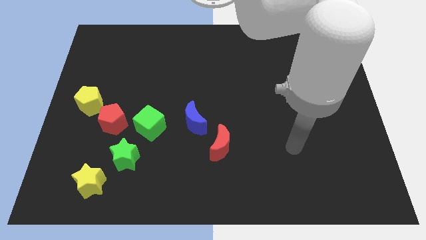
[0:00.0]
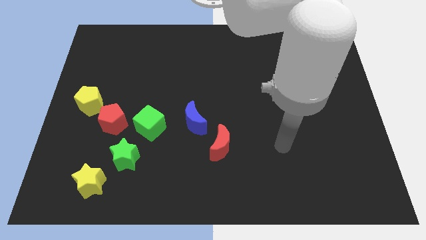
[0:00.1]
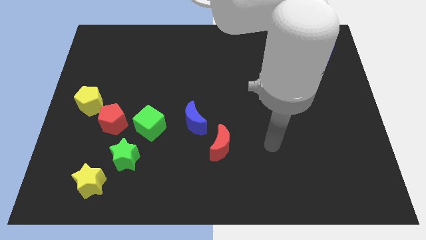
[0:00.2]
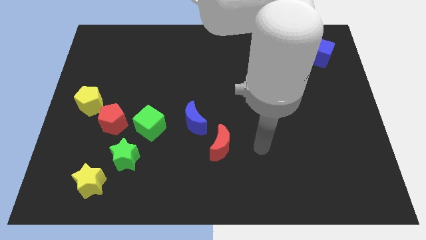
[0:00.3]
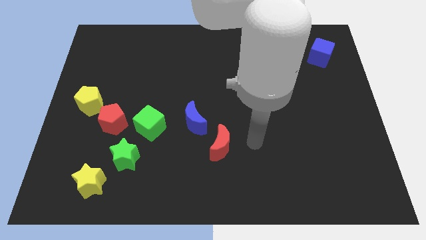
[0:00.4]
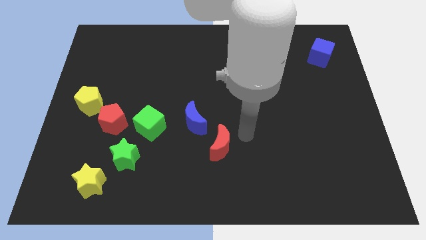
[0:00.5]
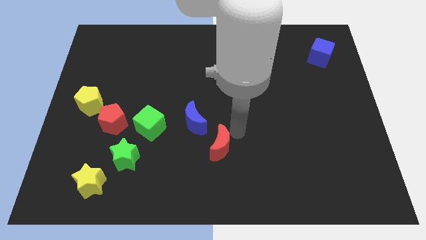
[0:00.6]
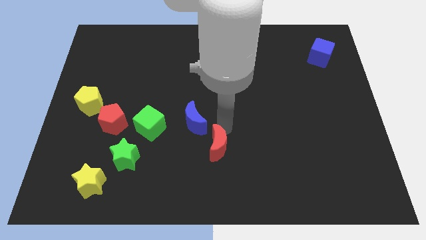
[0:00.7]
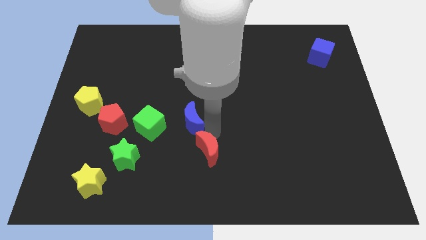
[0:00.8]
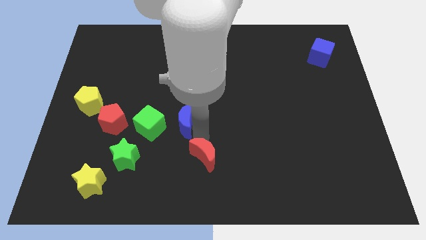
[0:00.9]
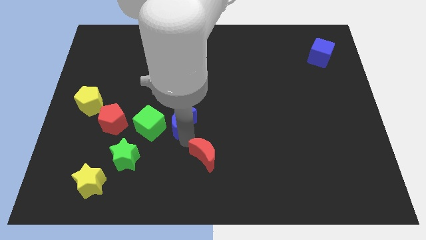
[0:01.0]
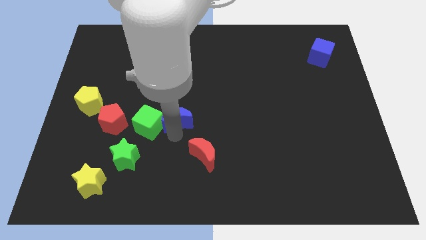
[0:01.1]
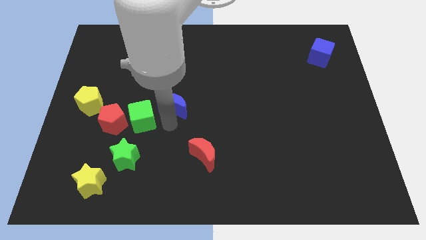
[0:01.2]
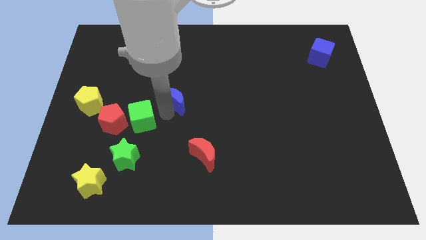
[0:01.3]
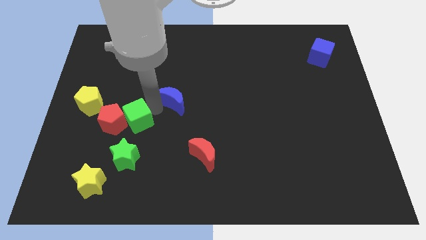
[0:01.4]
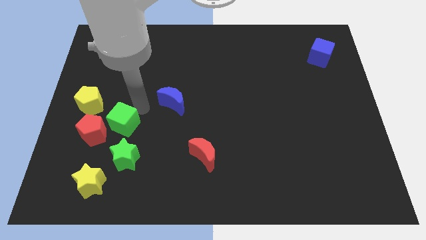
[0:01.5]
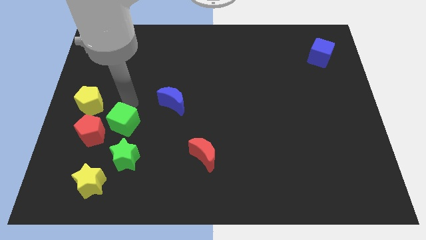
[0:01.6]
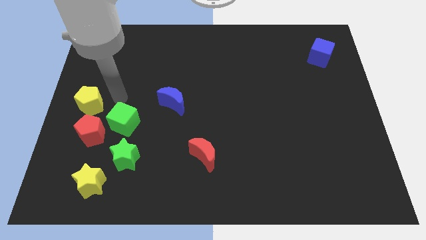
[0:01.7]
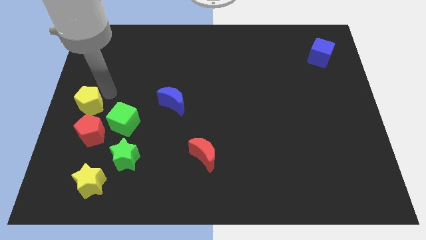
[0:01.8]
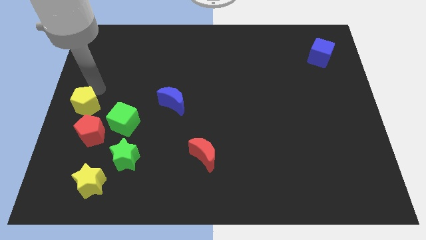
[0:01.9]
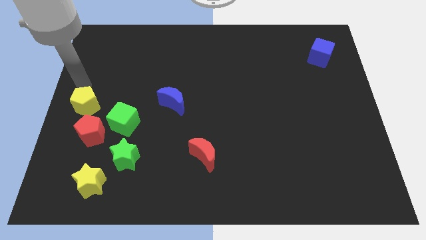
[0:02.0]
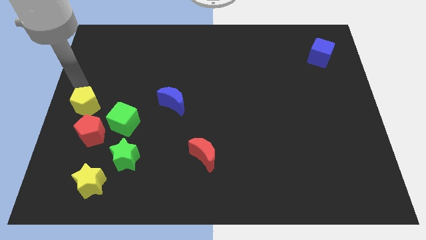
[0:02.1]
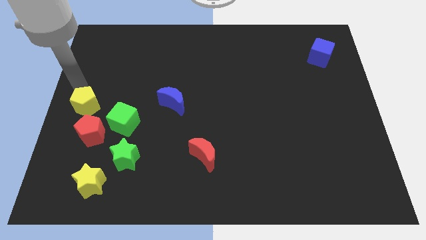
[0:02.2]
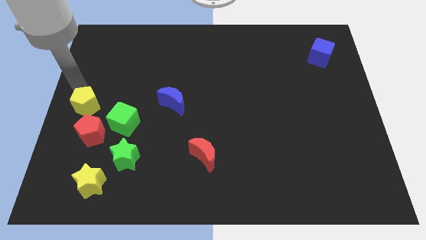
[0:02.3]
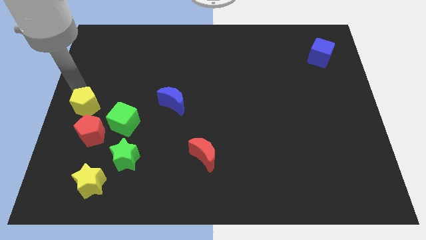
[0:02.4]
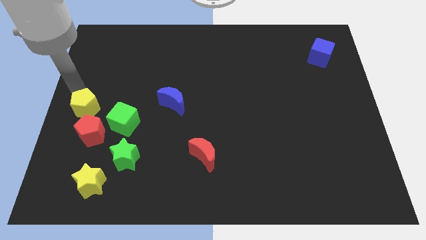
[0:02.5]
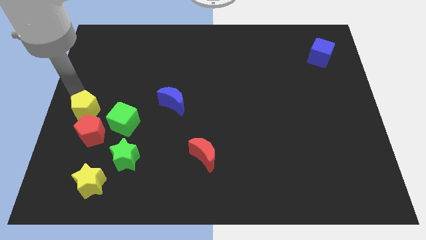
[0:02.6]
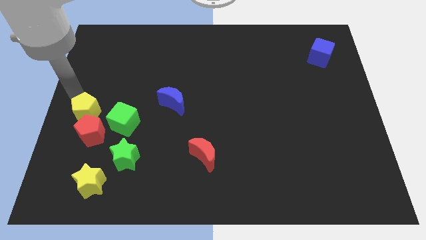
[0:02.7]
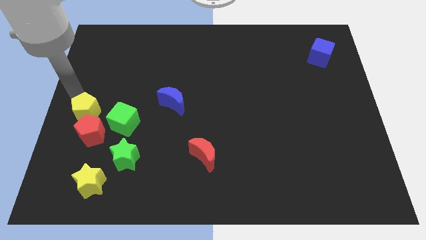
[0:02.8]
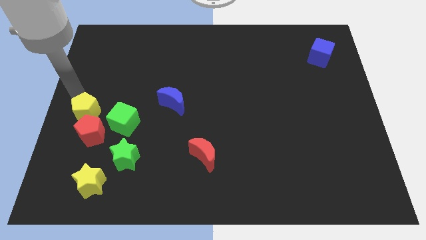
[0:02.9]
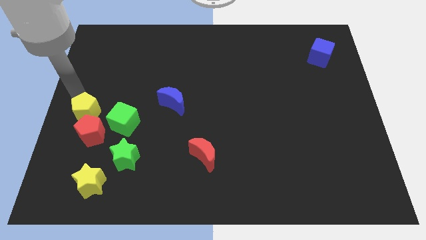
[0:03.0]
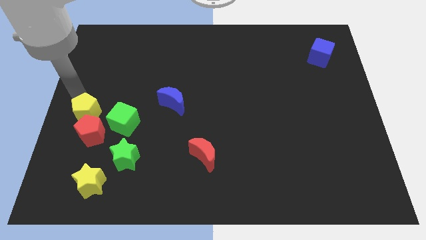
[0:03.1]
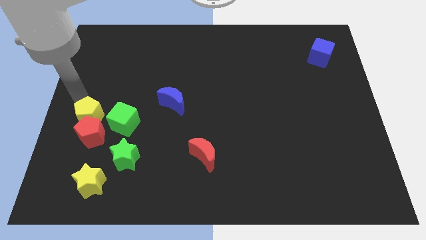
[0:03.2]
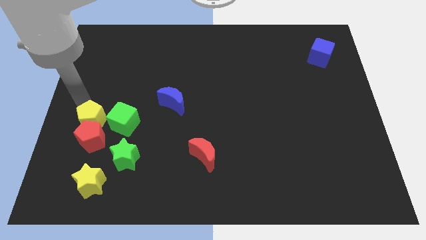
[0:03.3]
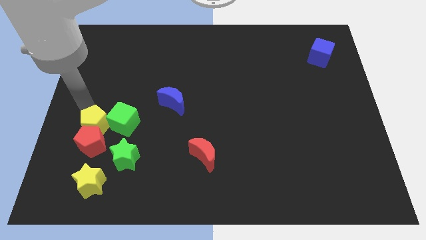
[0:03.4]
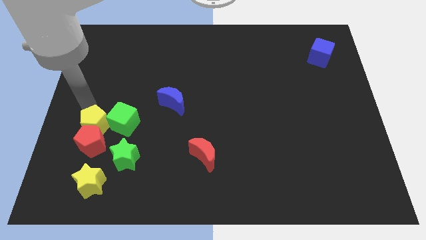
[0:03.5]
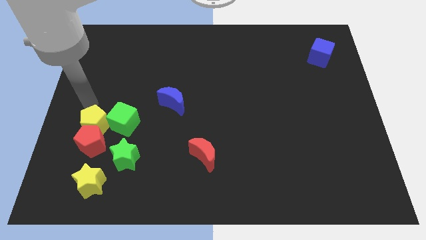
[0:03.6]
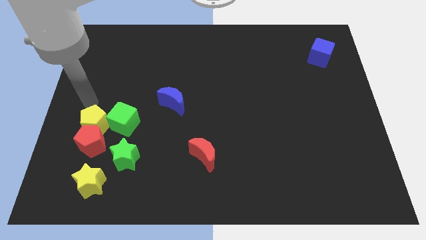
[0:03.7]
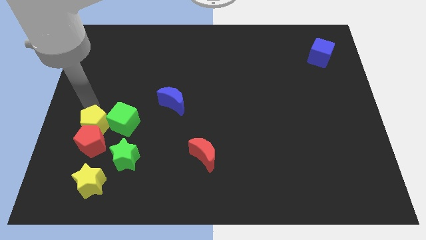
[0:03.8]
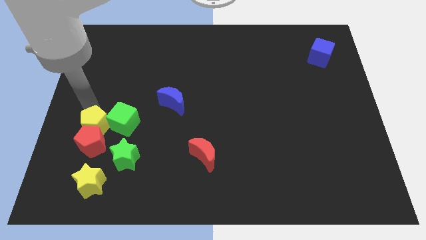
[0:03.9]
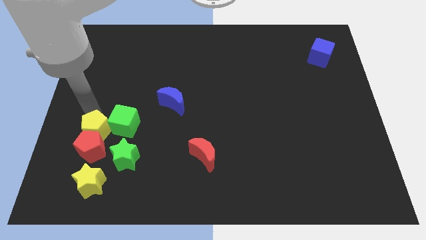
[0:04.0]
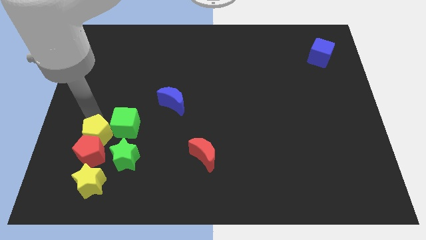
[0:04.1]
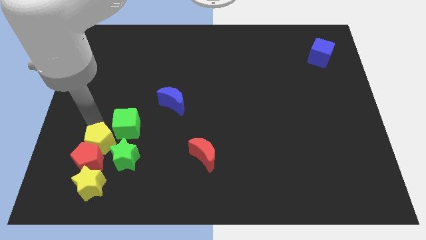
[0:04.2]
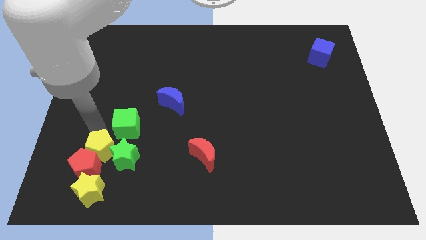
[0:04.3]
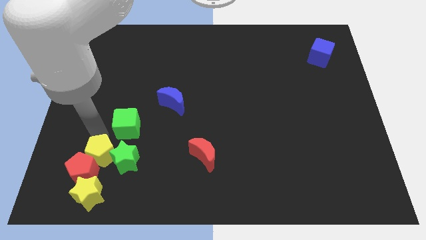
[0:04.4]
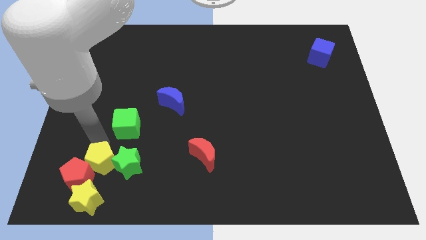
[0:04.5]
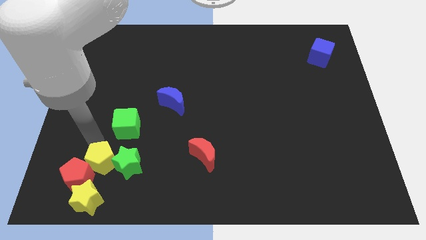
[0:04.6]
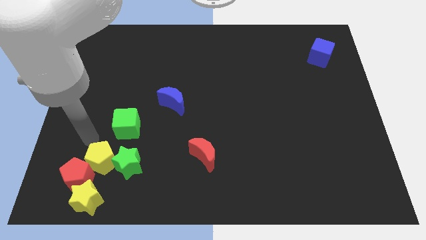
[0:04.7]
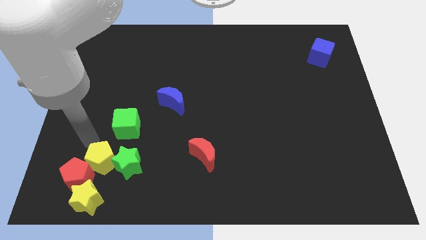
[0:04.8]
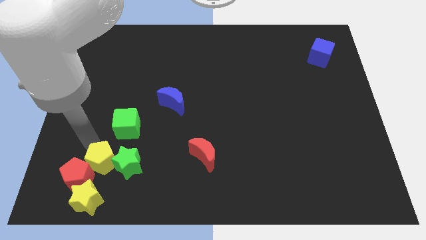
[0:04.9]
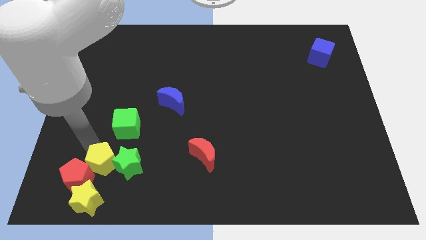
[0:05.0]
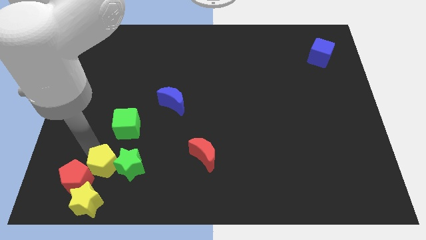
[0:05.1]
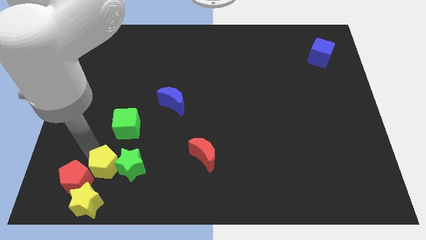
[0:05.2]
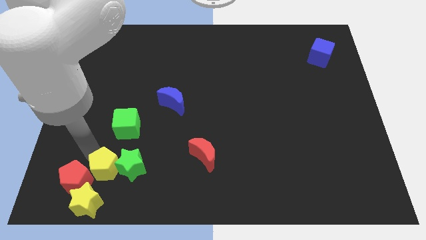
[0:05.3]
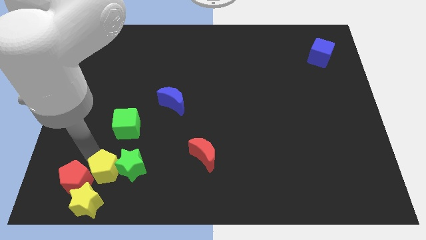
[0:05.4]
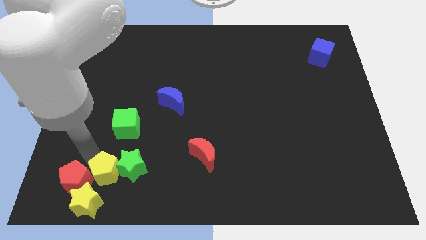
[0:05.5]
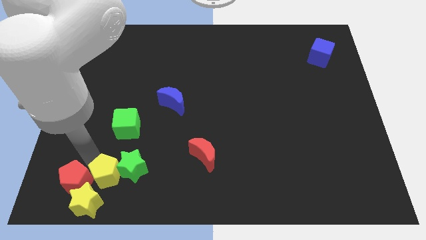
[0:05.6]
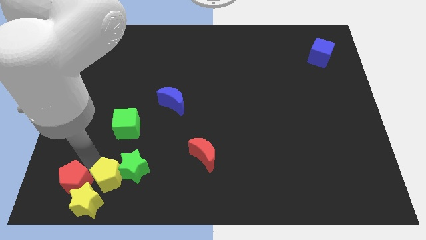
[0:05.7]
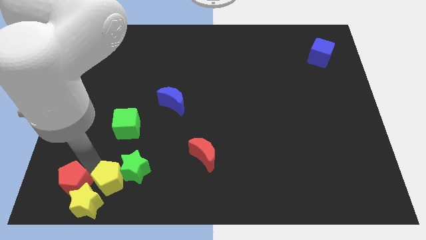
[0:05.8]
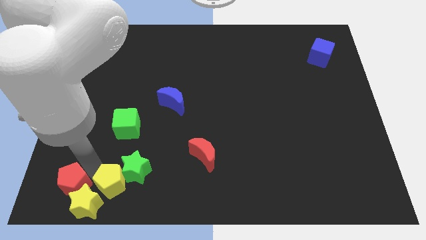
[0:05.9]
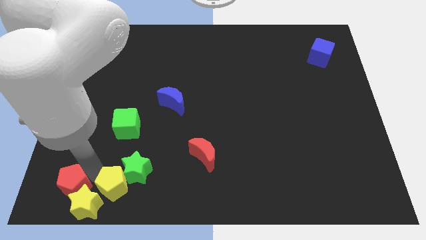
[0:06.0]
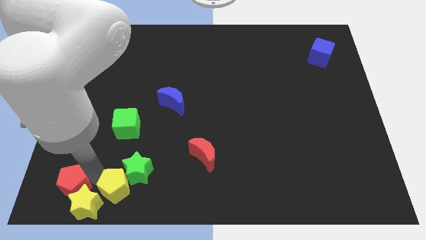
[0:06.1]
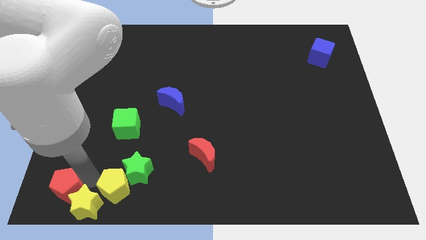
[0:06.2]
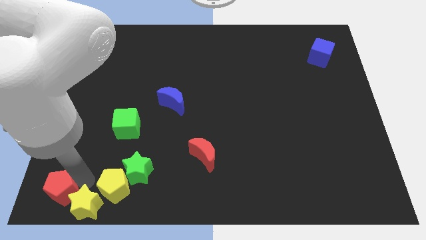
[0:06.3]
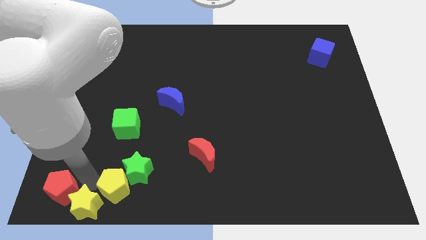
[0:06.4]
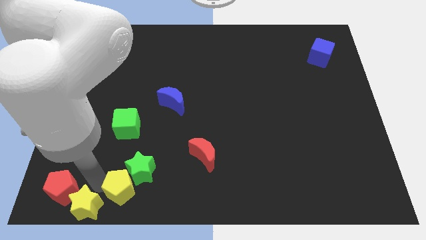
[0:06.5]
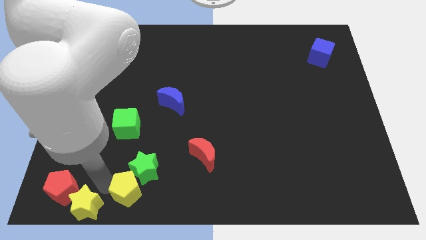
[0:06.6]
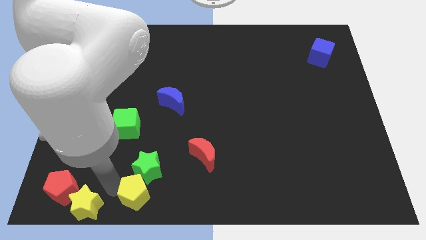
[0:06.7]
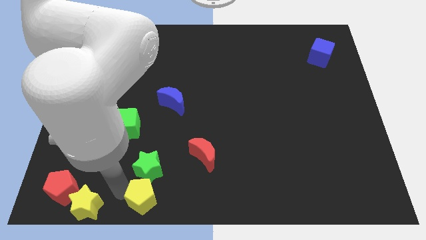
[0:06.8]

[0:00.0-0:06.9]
push the yellow pentagon to the bottom
